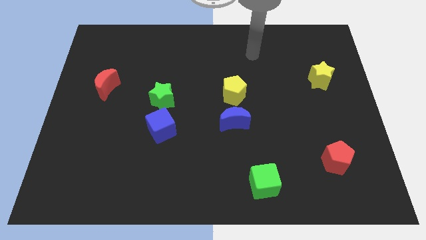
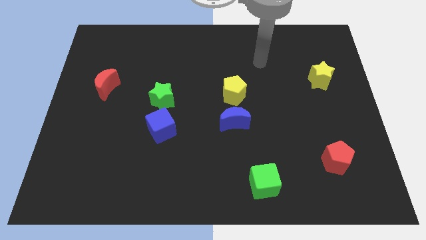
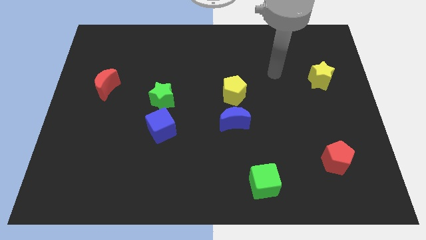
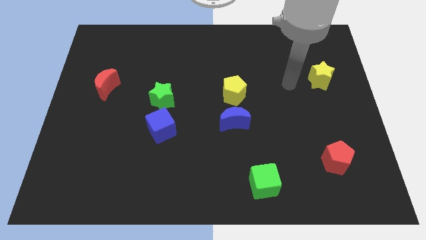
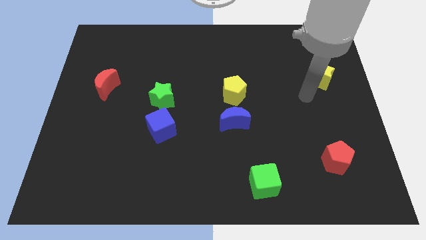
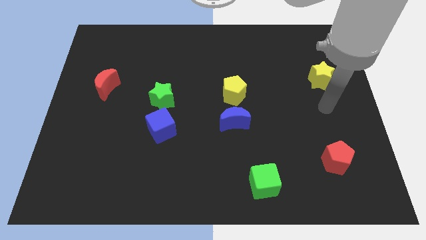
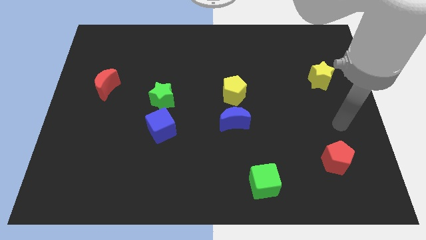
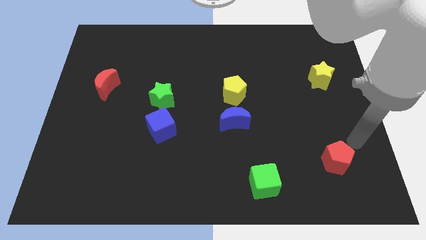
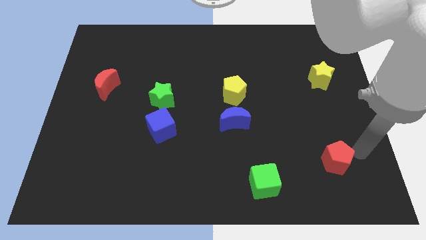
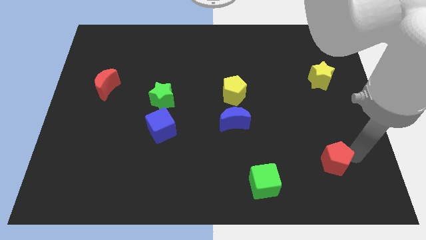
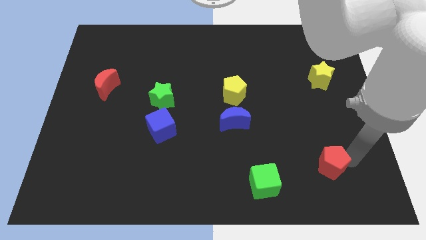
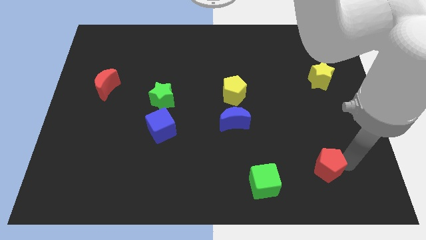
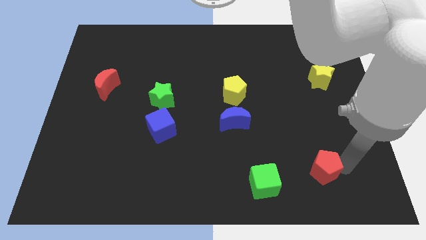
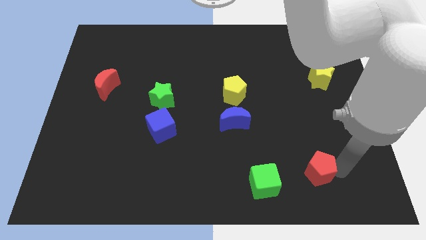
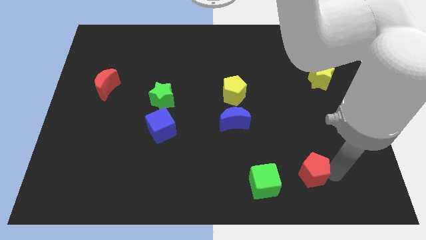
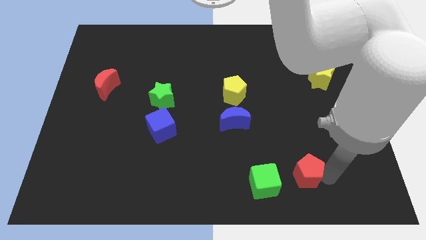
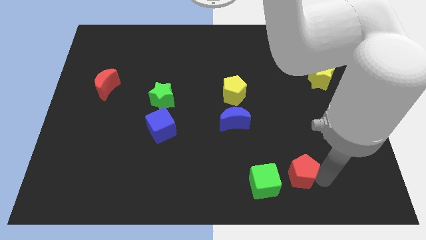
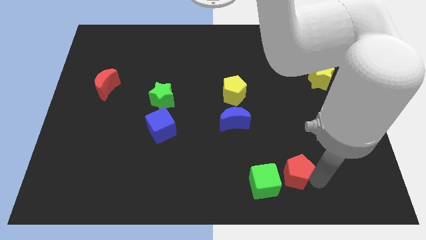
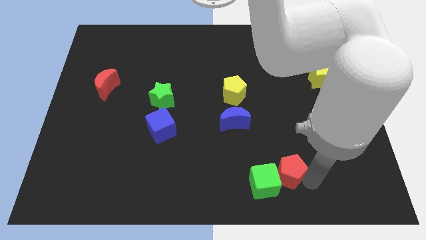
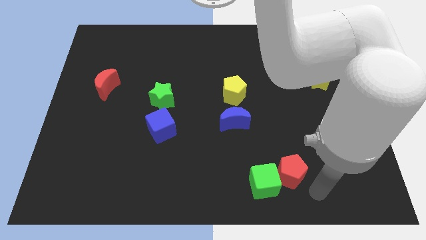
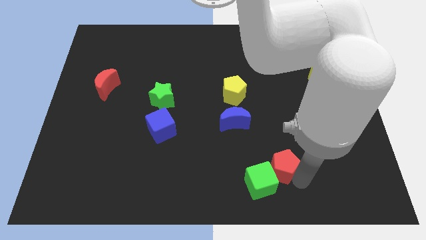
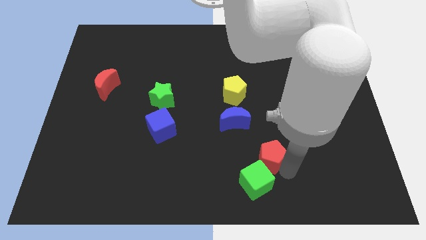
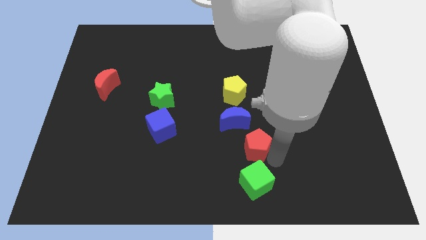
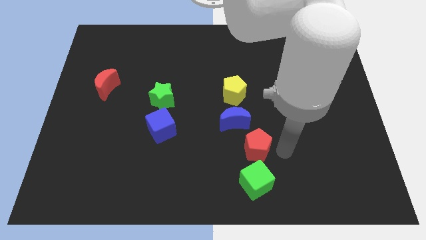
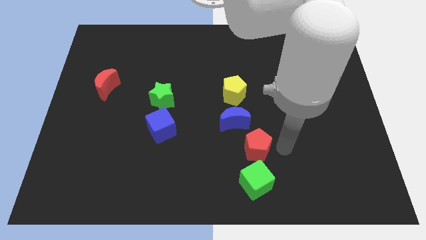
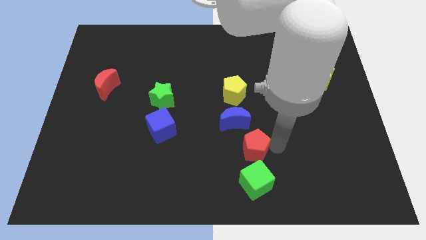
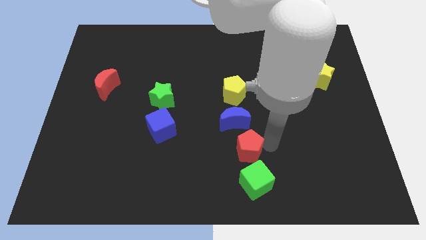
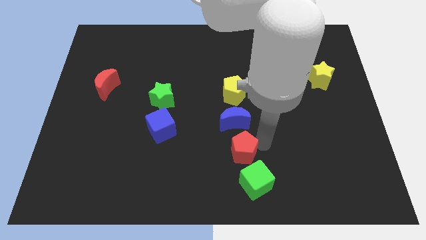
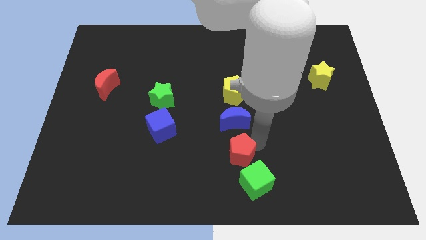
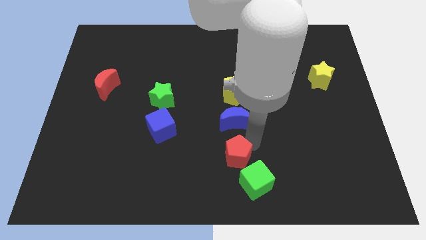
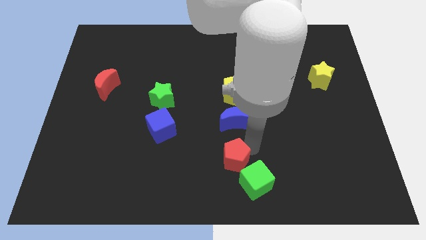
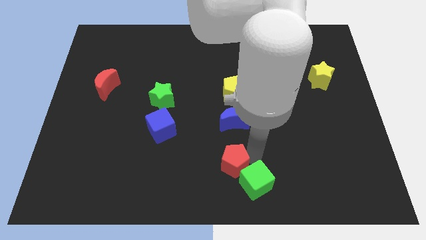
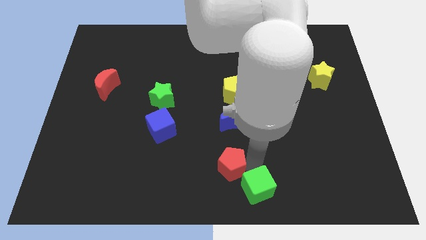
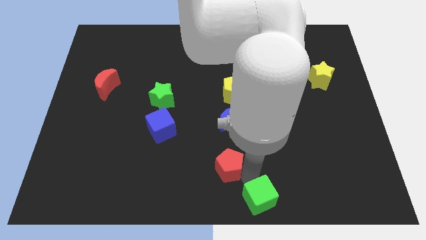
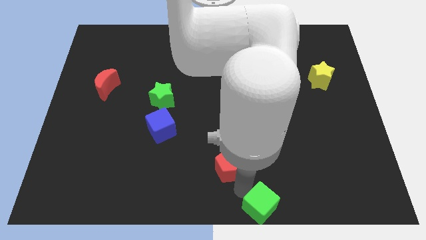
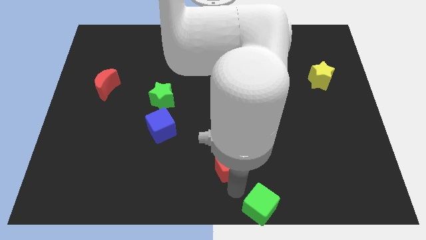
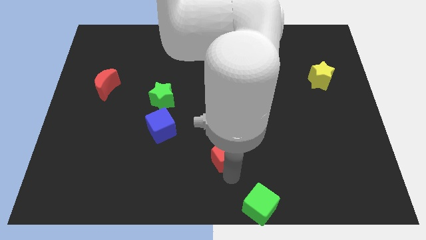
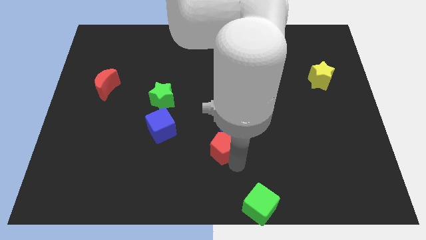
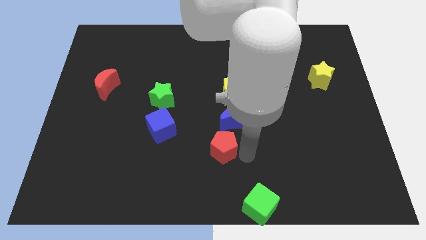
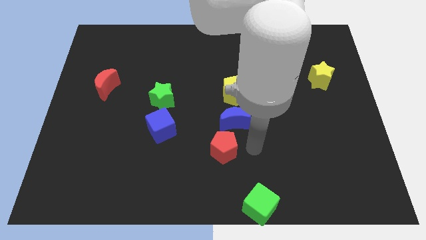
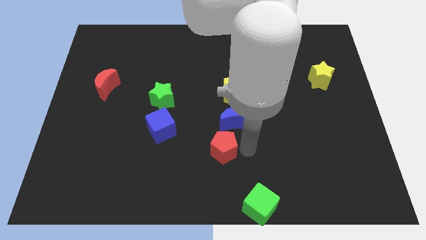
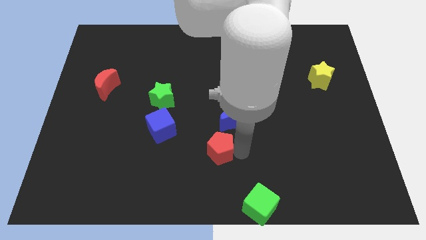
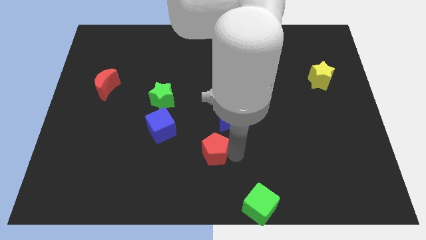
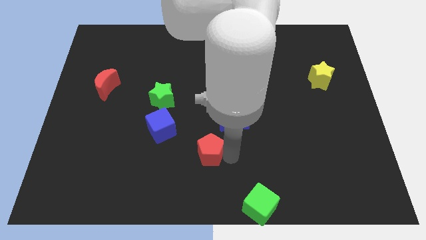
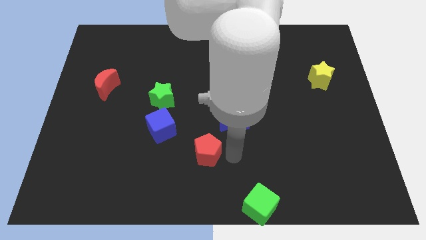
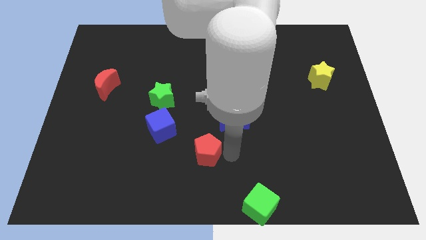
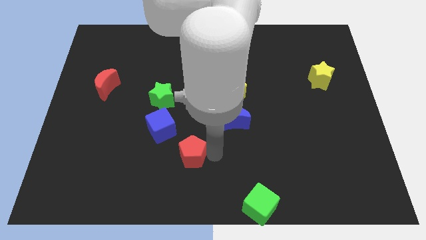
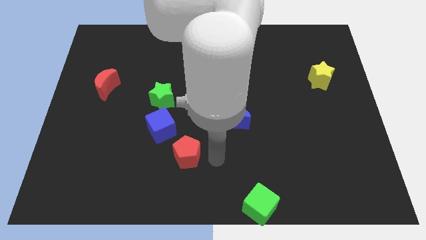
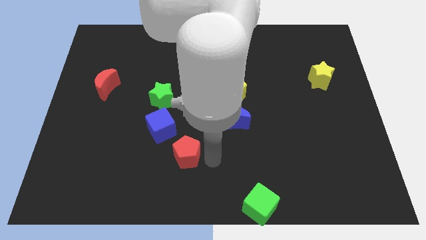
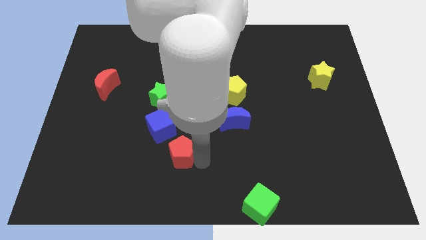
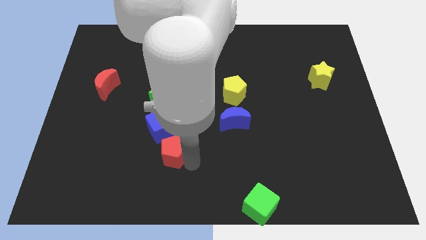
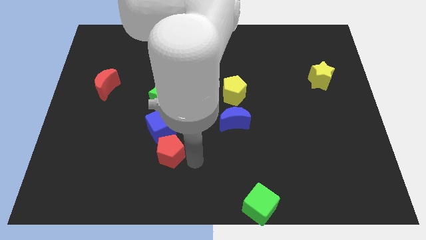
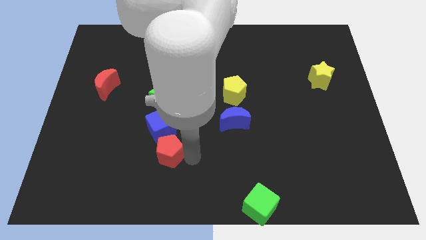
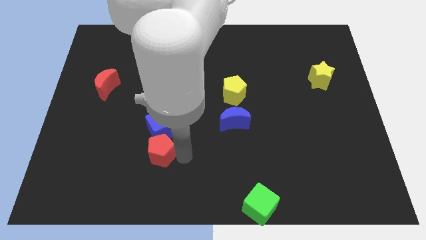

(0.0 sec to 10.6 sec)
push the red pentagon to the bottom left side of the blue cube

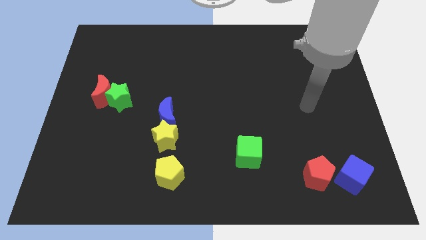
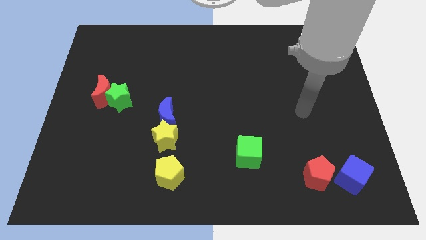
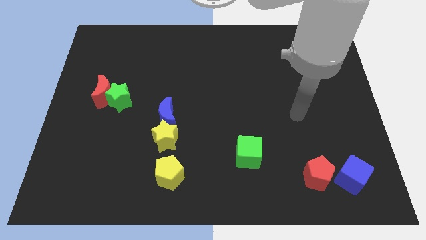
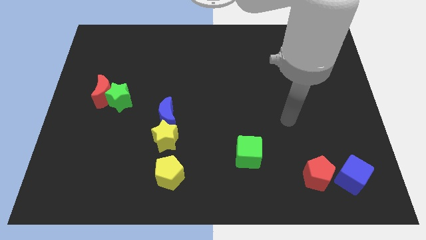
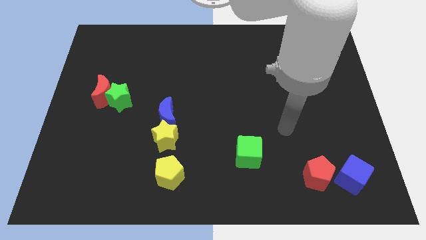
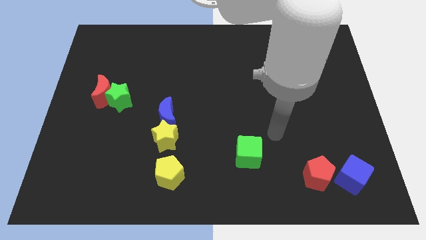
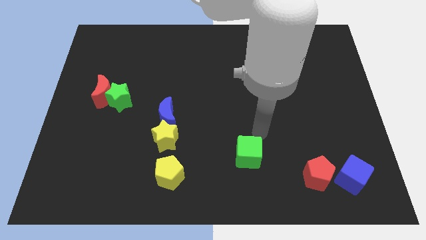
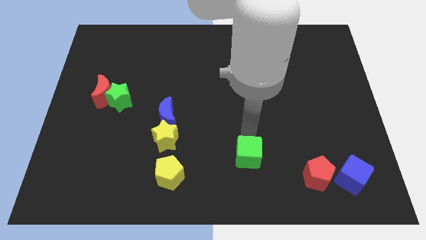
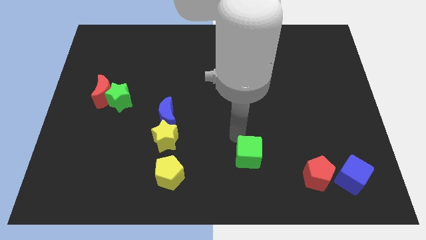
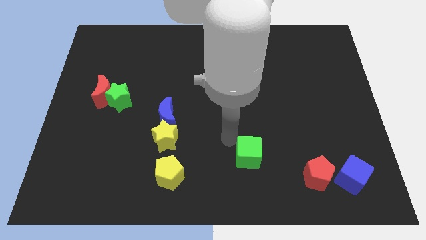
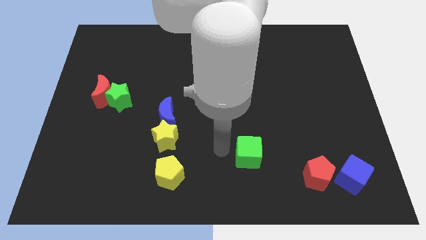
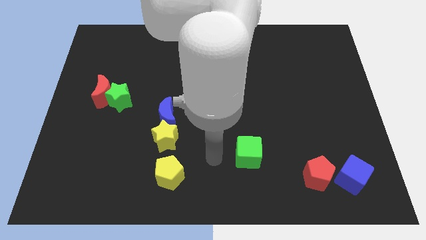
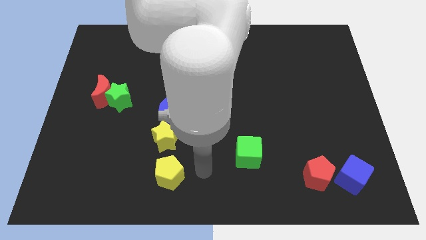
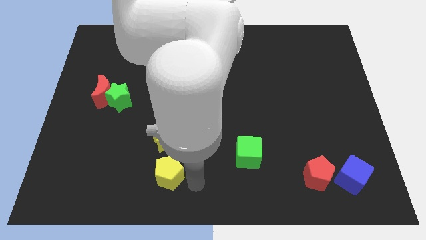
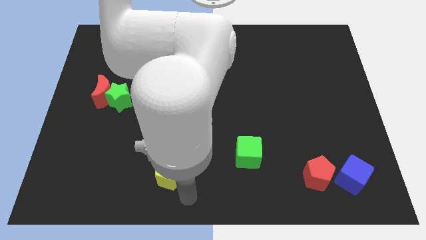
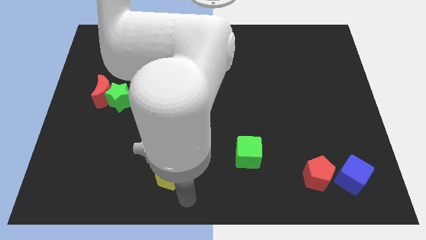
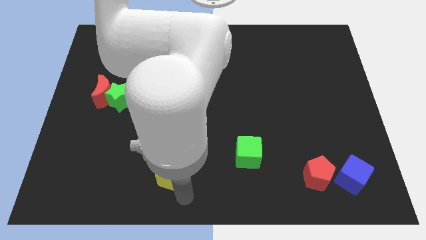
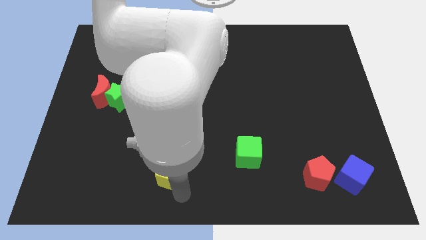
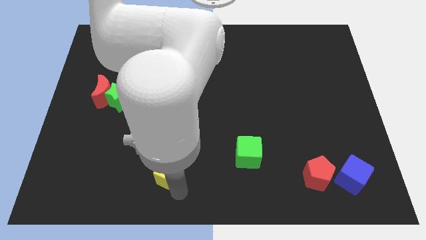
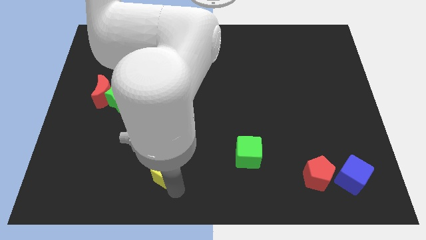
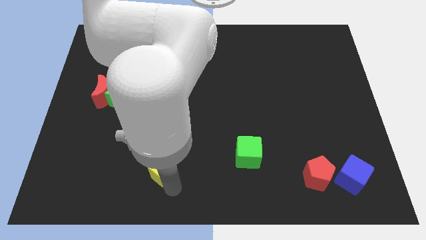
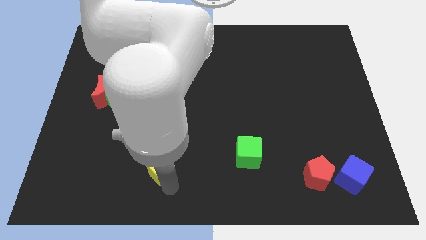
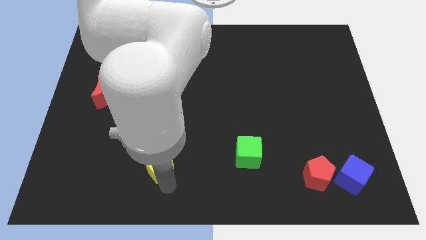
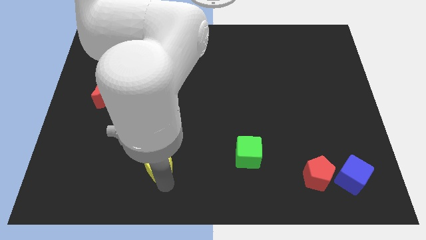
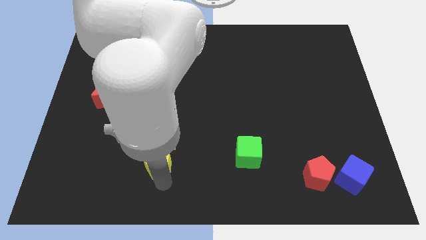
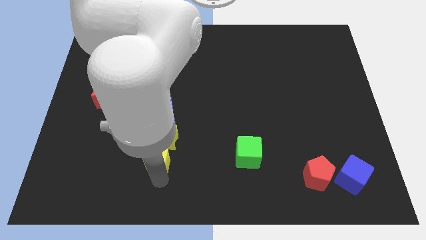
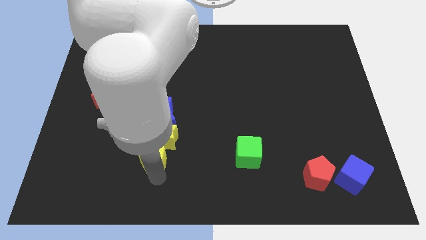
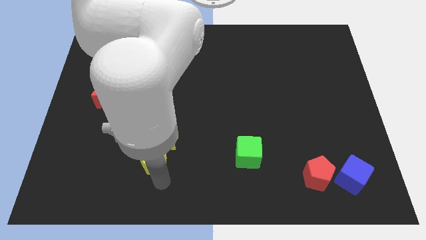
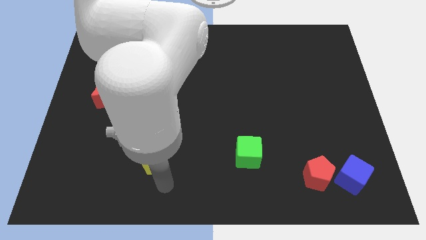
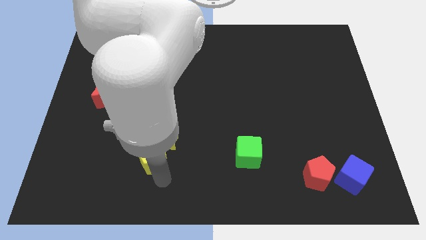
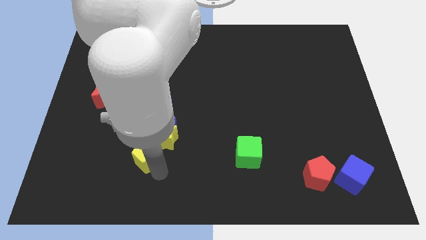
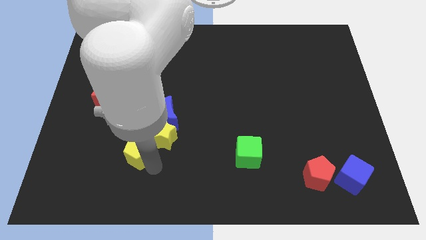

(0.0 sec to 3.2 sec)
move the yellow pentagon to the bottom left side of the blue moon
